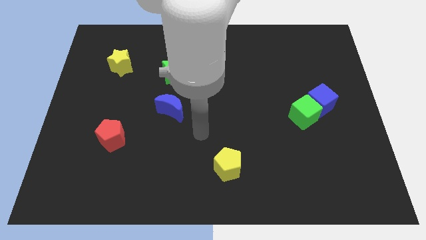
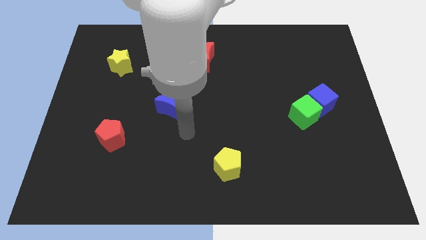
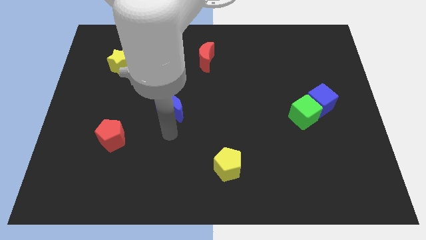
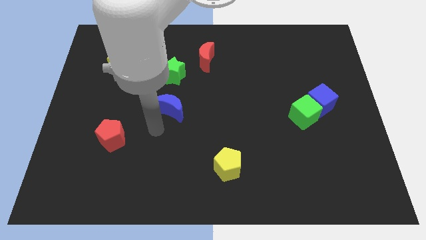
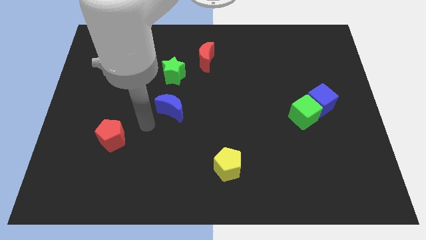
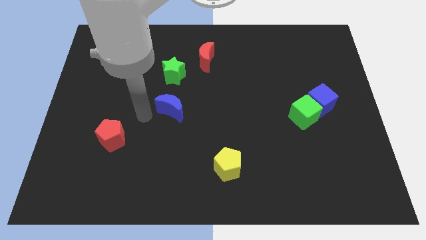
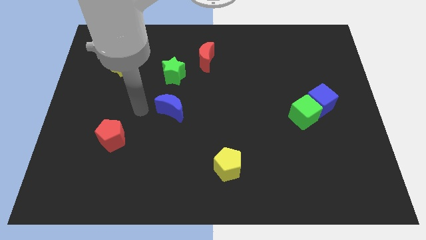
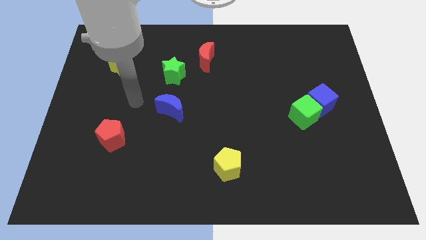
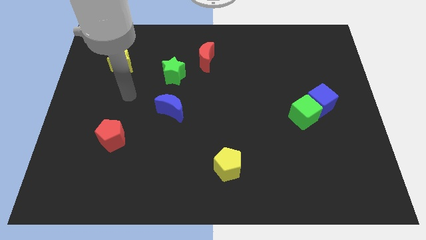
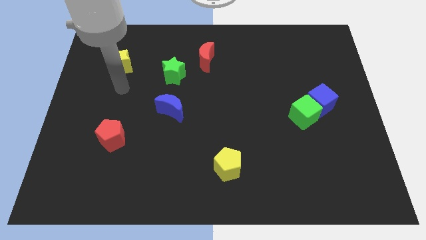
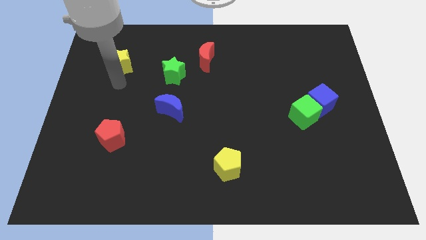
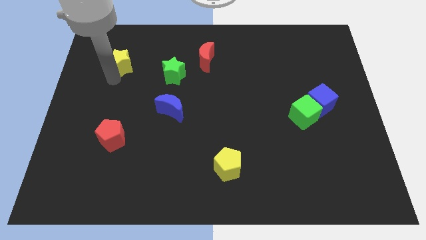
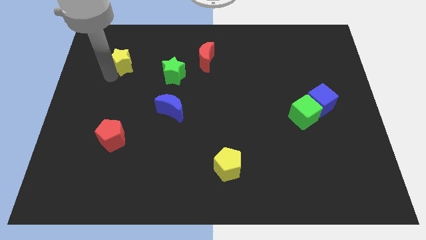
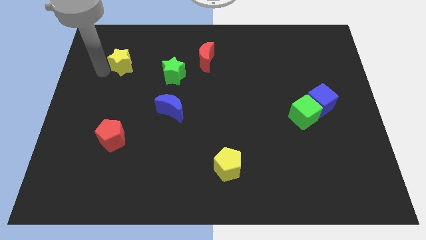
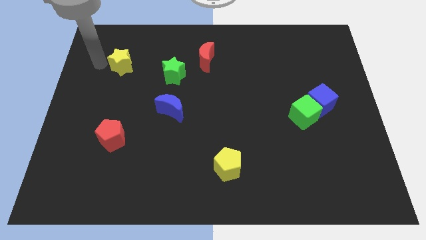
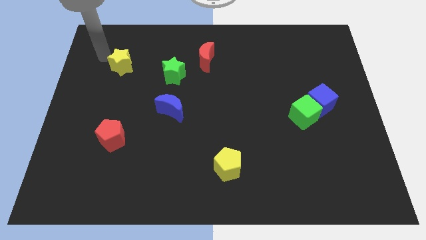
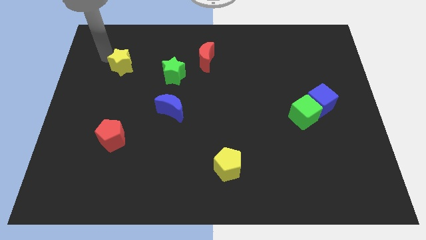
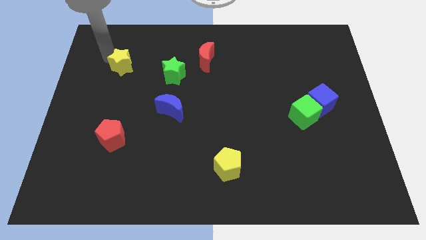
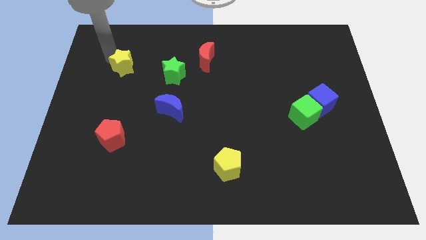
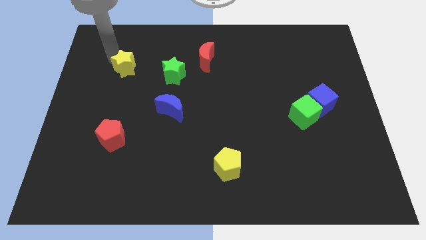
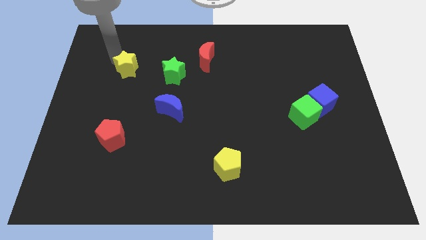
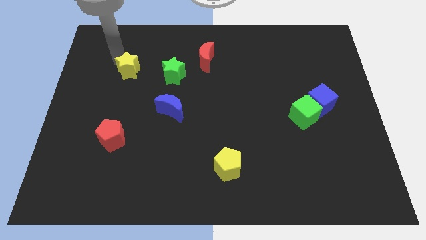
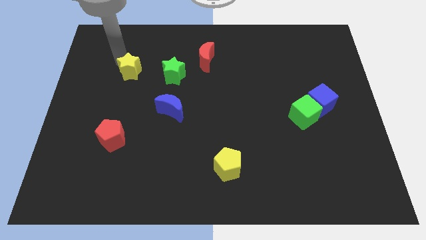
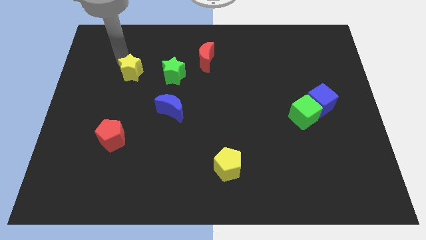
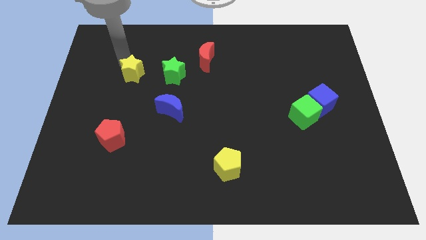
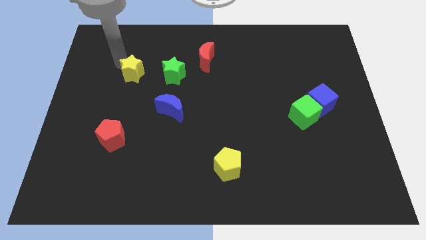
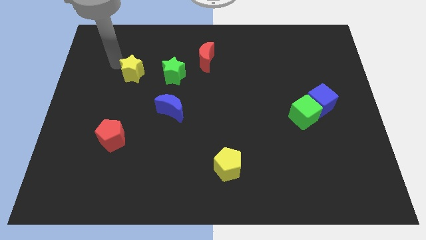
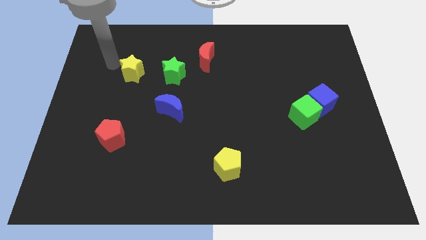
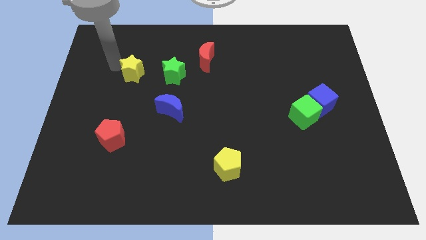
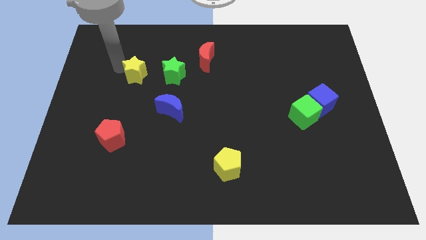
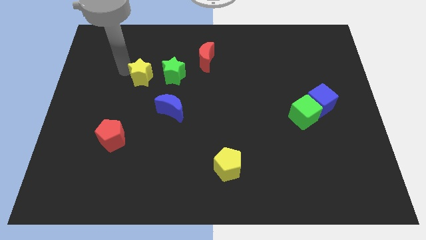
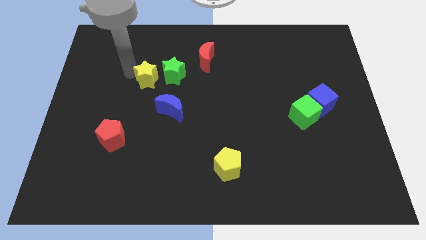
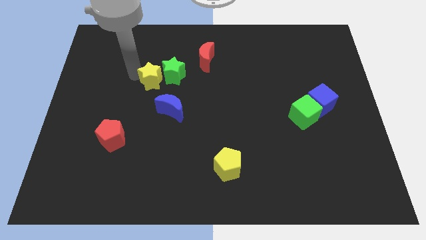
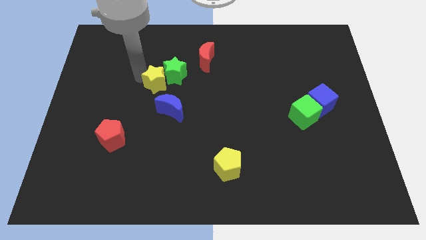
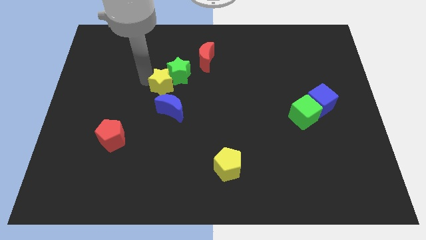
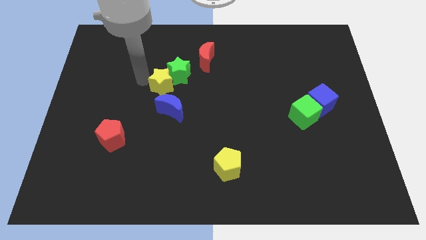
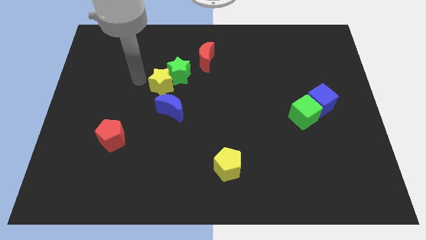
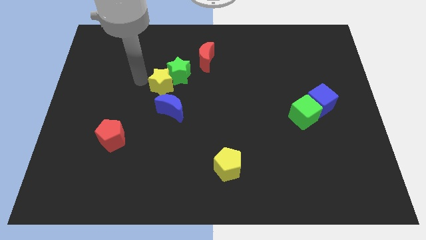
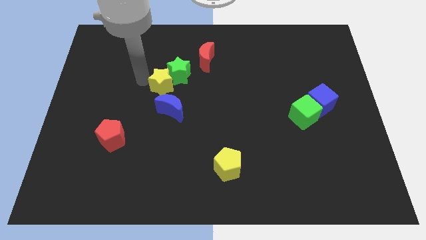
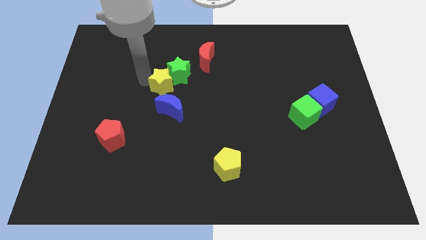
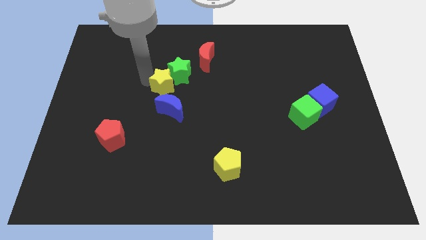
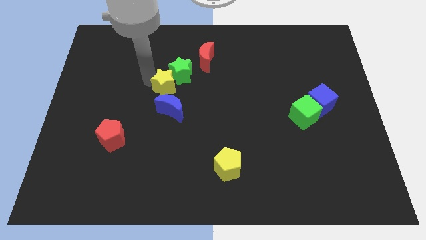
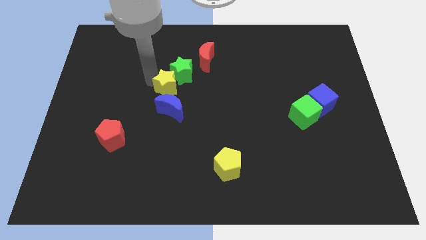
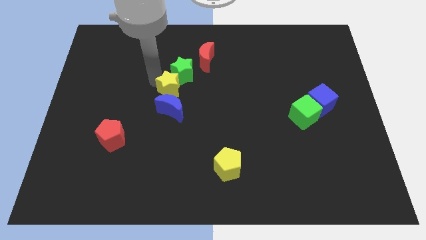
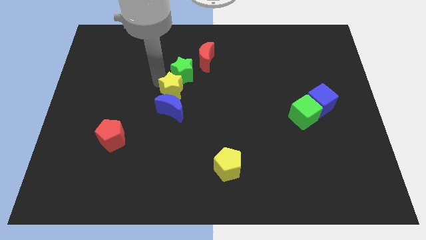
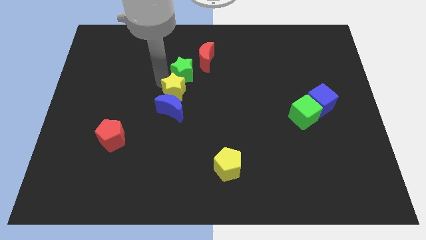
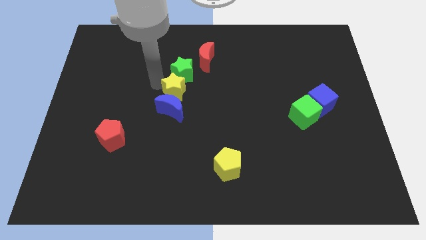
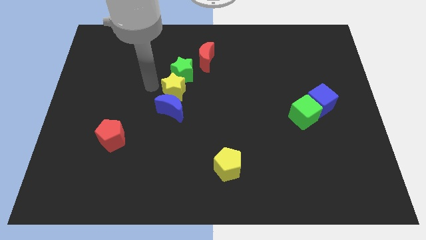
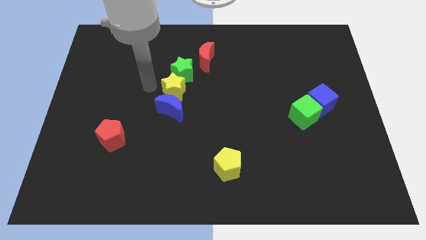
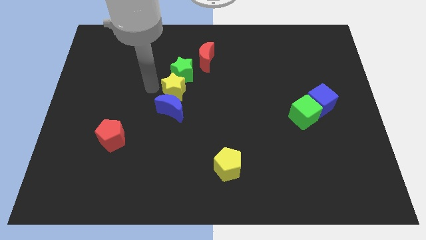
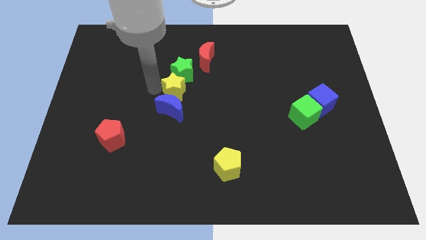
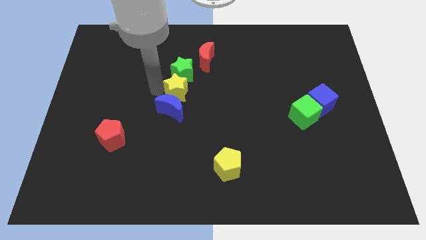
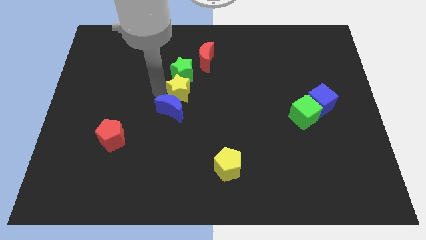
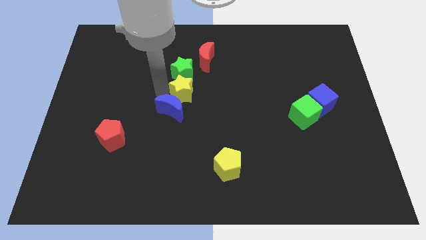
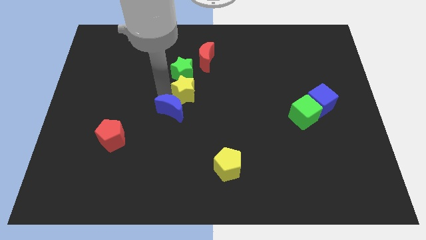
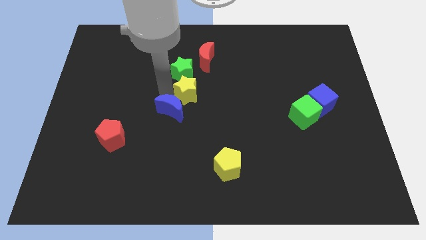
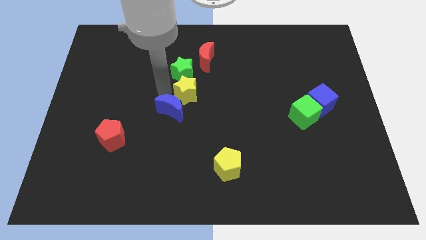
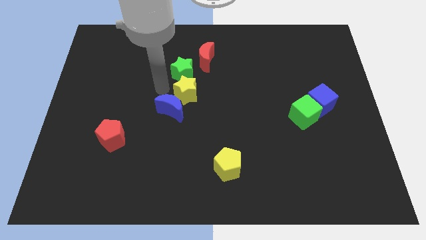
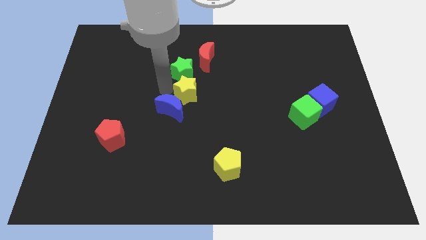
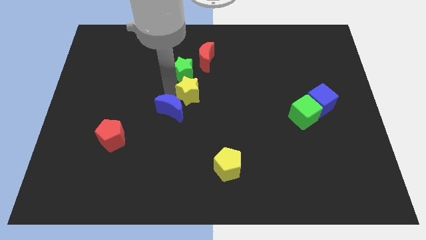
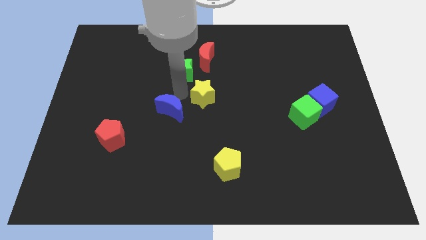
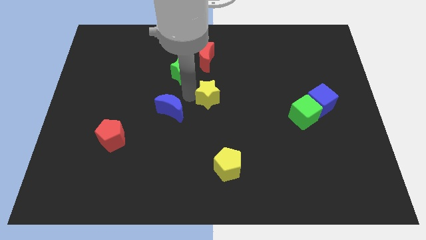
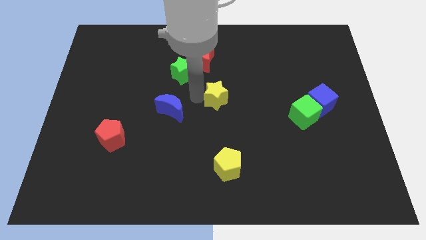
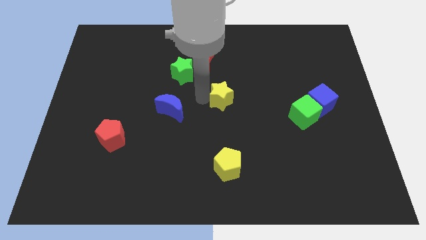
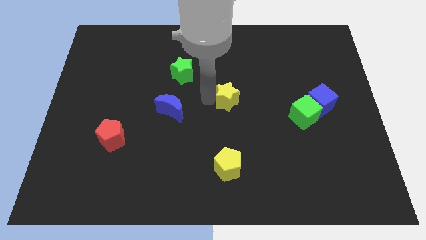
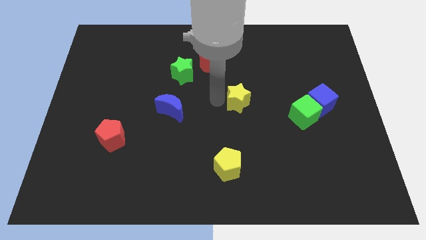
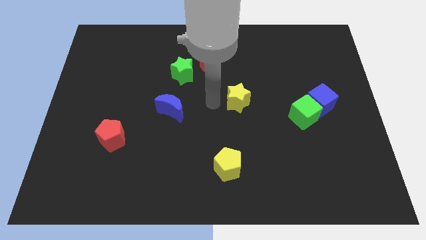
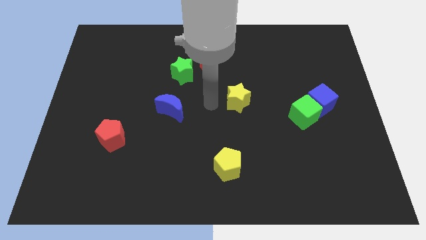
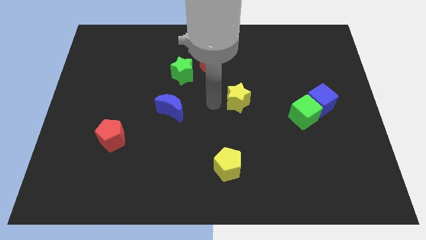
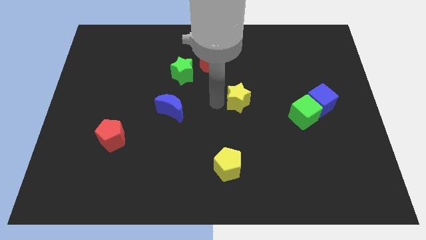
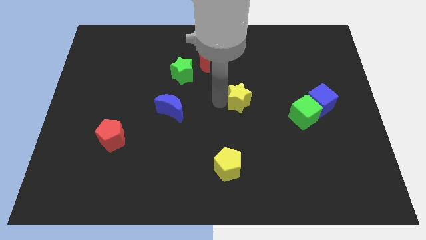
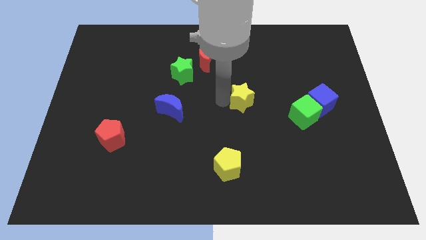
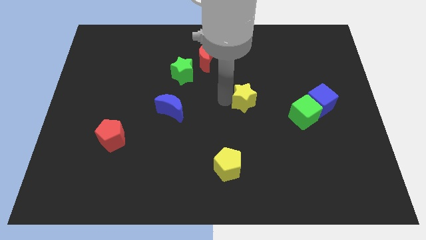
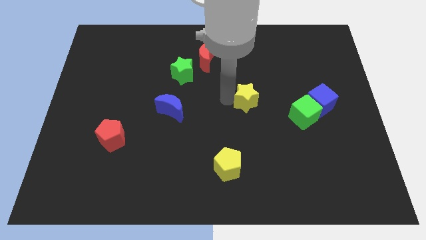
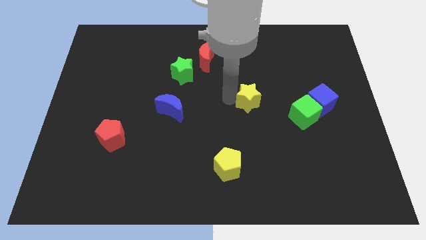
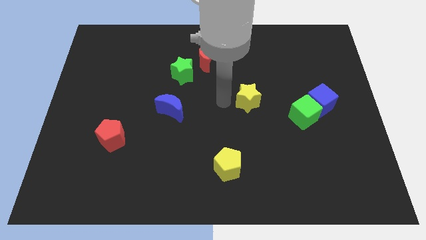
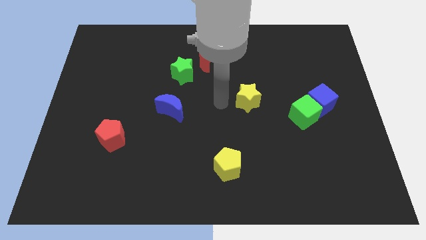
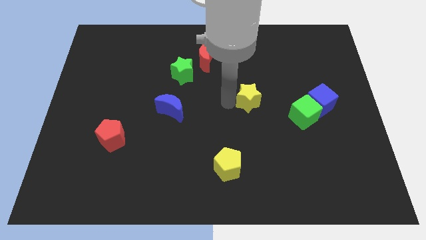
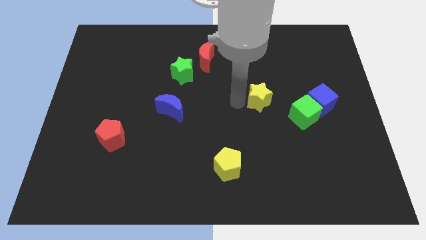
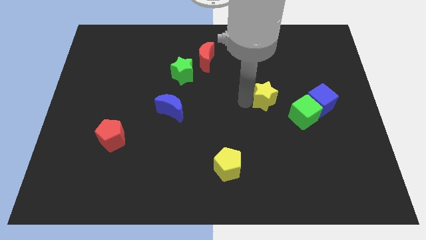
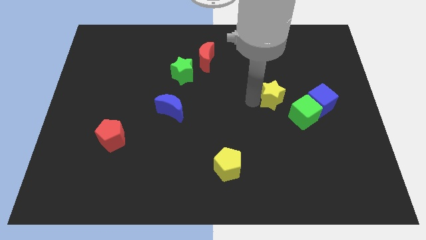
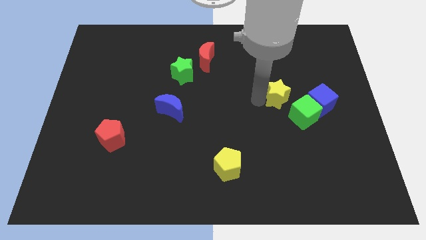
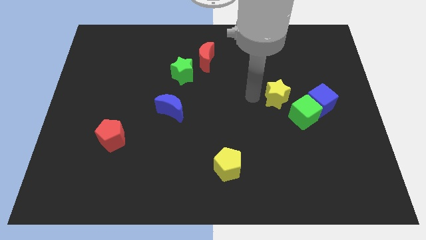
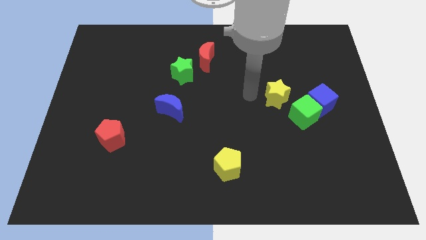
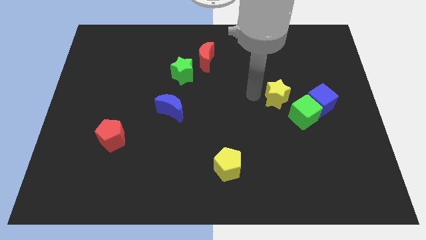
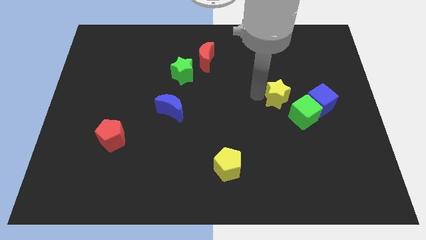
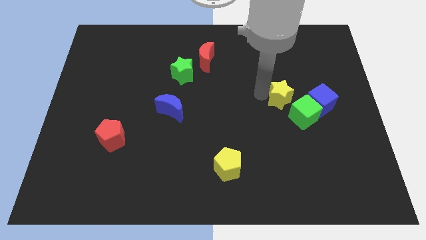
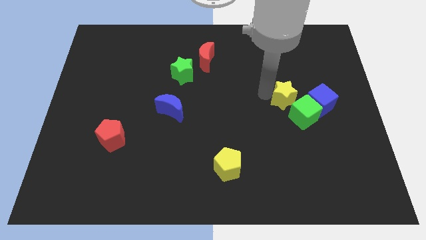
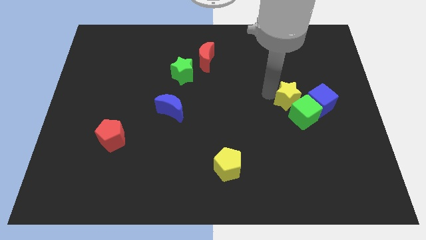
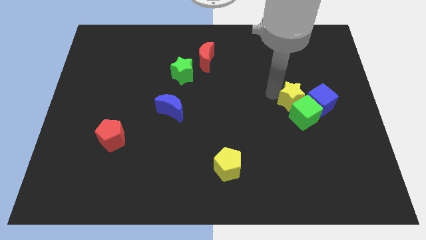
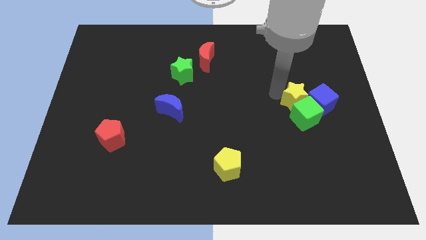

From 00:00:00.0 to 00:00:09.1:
slide the yellow star close to the blue cube
